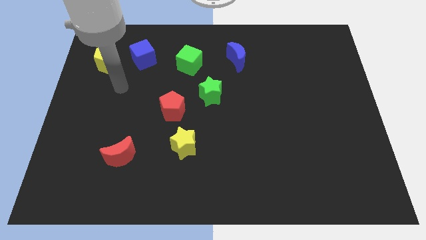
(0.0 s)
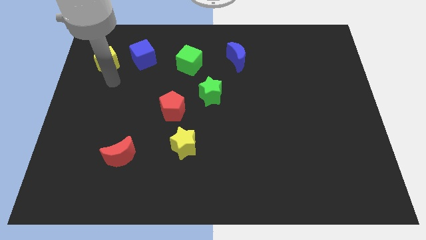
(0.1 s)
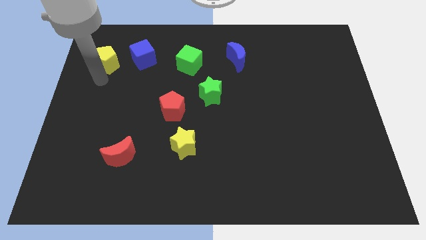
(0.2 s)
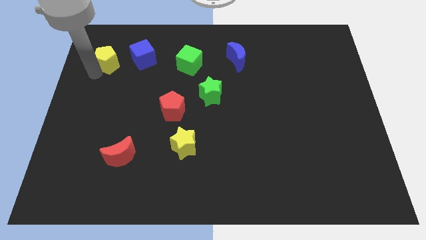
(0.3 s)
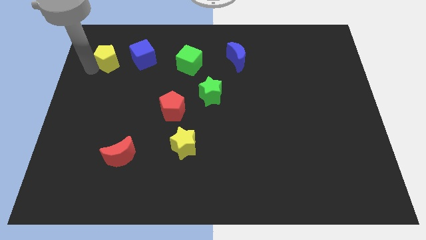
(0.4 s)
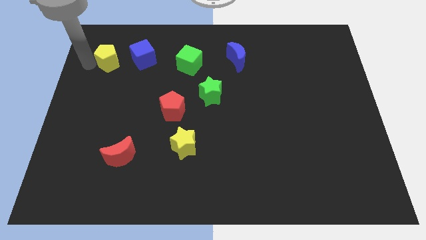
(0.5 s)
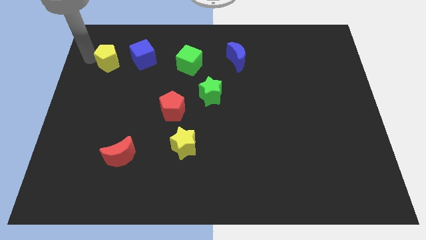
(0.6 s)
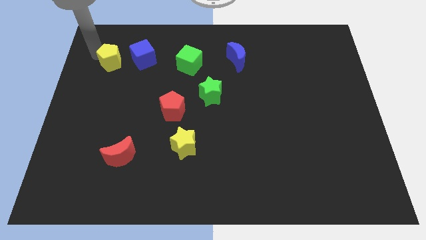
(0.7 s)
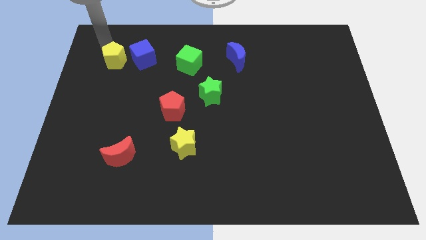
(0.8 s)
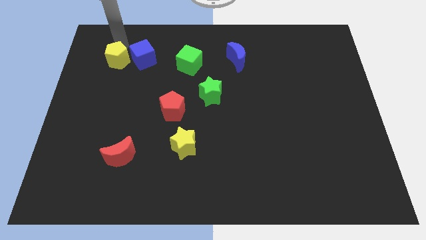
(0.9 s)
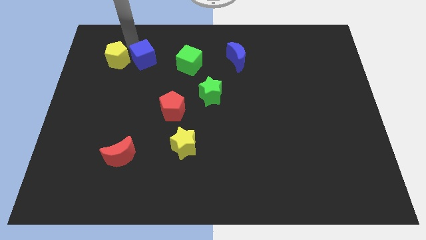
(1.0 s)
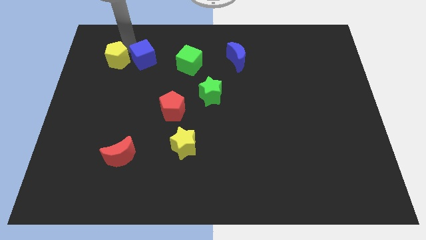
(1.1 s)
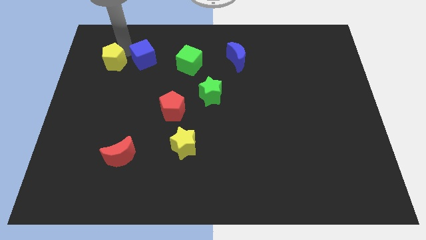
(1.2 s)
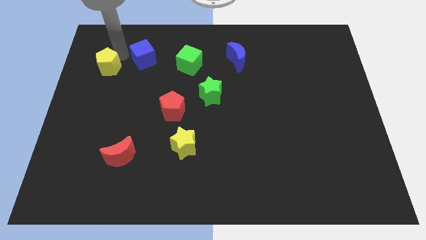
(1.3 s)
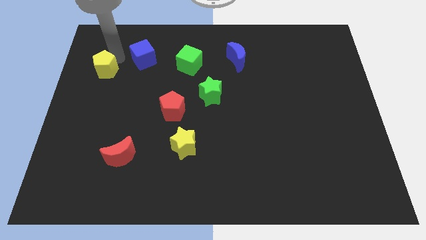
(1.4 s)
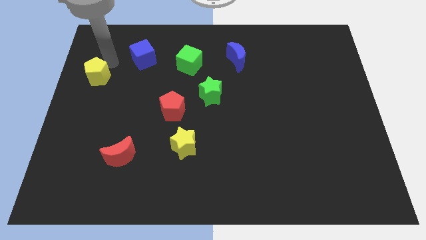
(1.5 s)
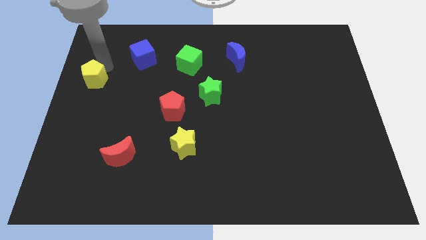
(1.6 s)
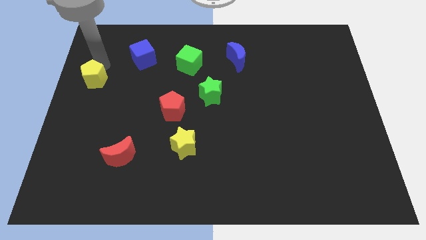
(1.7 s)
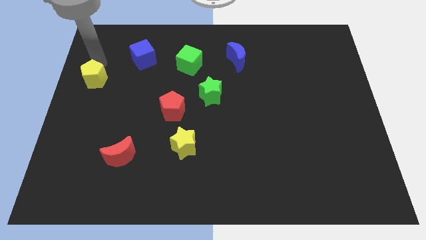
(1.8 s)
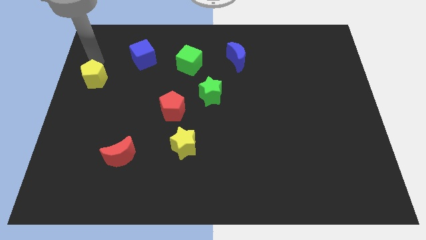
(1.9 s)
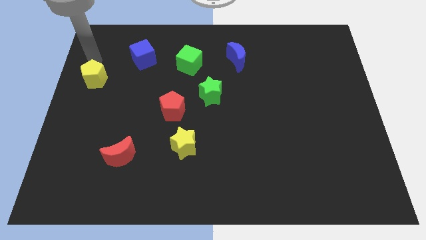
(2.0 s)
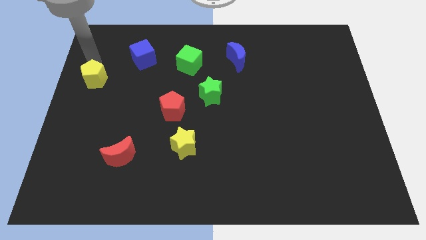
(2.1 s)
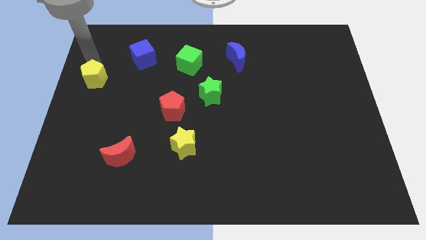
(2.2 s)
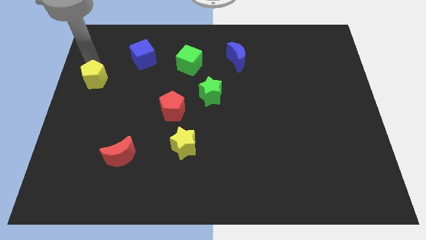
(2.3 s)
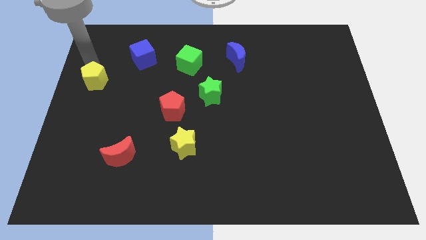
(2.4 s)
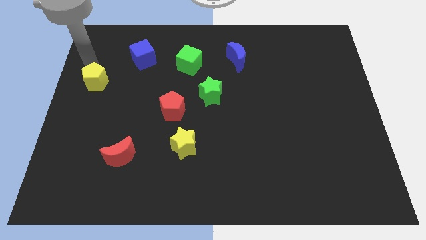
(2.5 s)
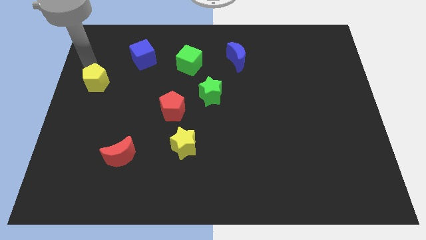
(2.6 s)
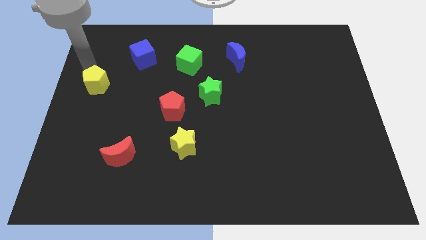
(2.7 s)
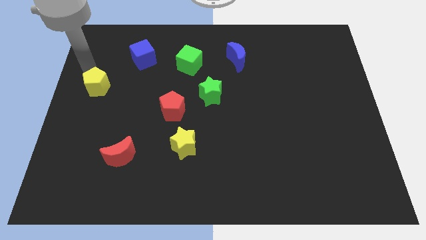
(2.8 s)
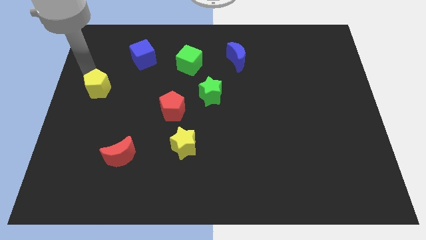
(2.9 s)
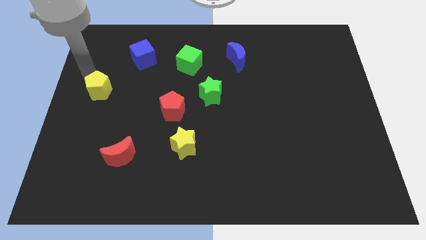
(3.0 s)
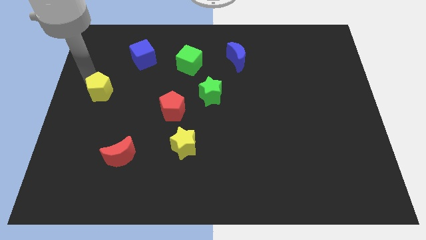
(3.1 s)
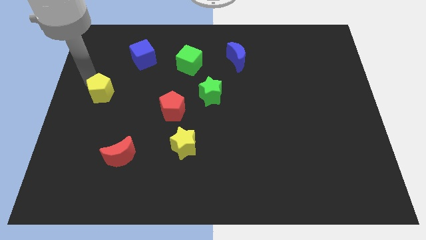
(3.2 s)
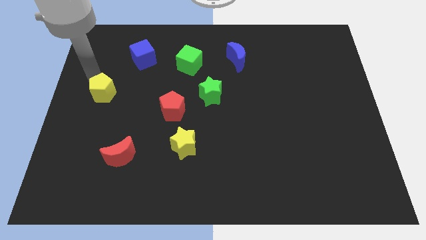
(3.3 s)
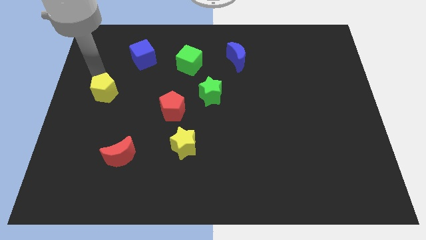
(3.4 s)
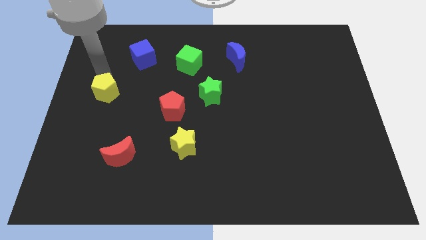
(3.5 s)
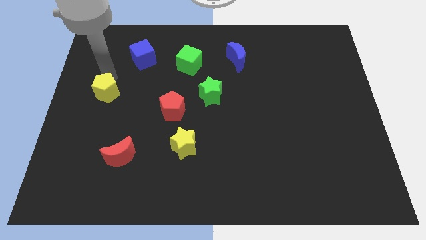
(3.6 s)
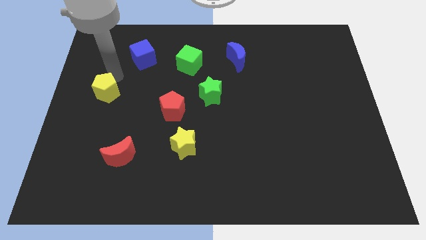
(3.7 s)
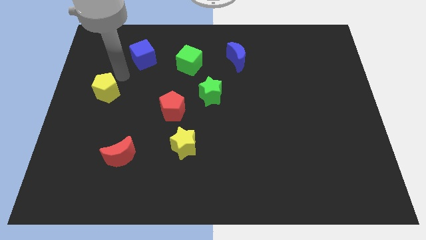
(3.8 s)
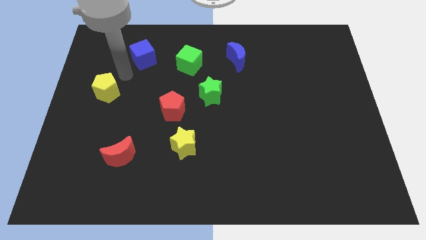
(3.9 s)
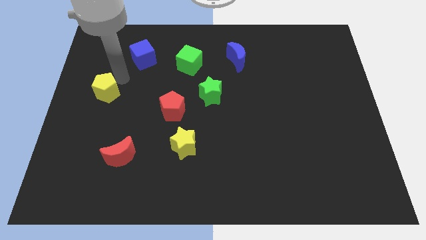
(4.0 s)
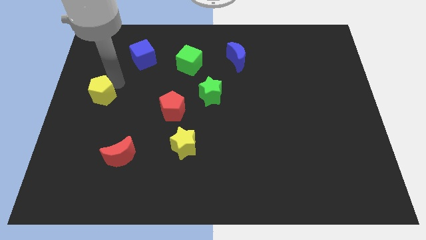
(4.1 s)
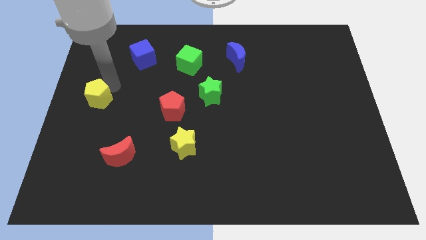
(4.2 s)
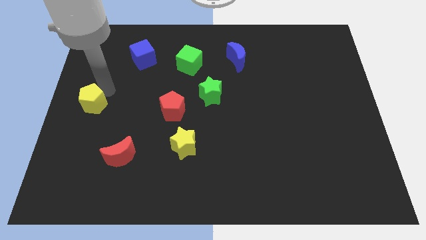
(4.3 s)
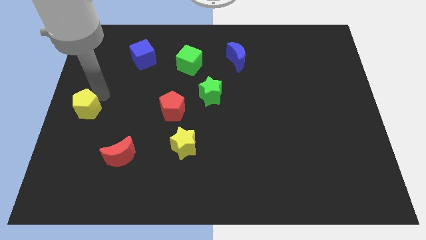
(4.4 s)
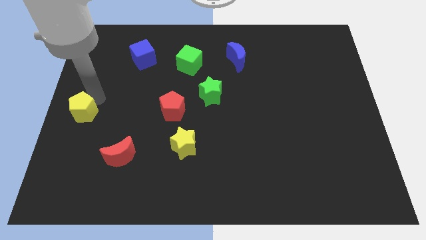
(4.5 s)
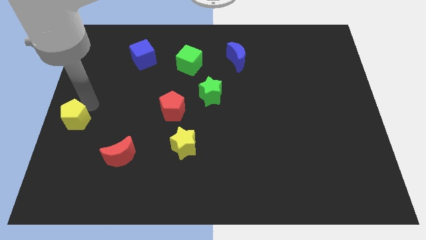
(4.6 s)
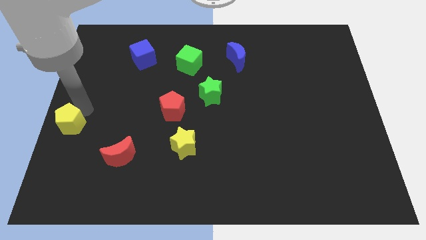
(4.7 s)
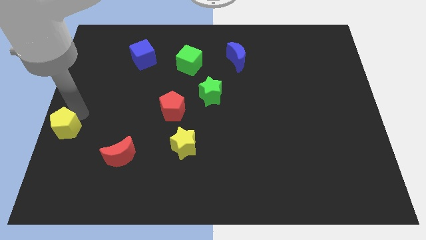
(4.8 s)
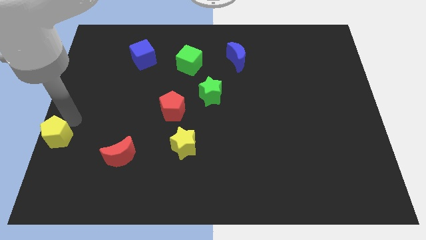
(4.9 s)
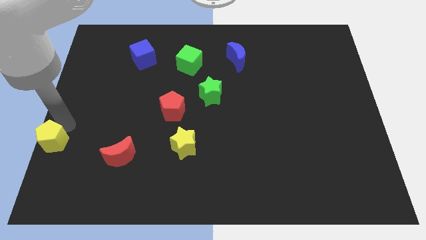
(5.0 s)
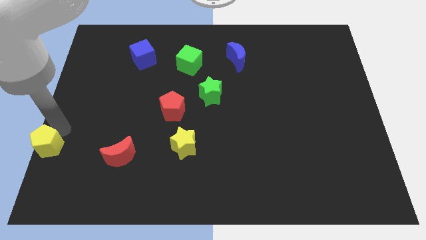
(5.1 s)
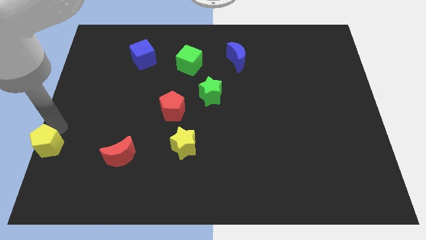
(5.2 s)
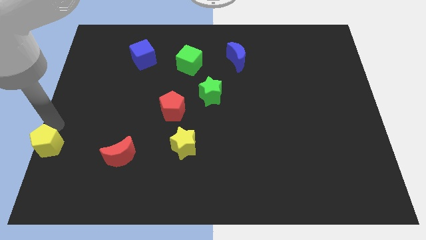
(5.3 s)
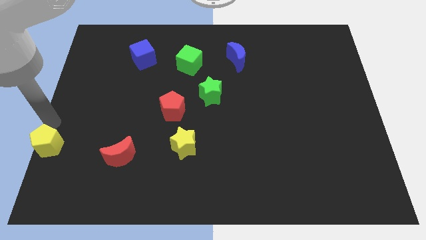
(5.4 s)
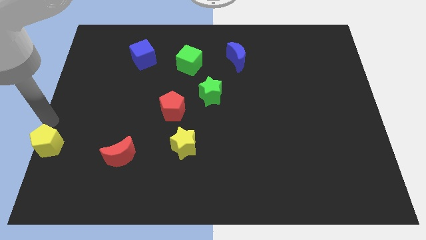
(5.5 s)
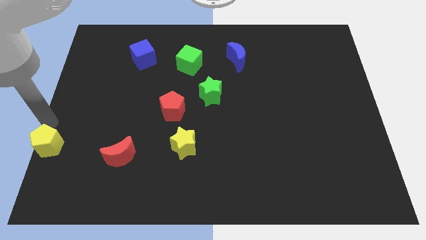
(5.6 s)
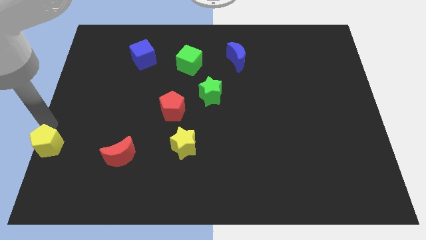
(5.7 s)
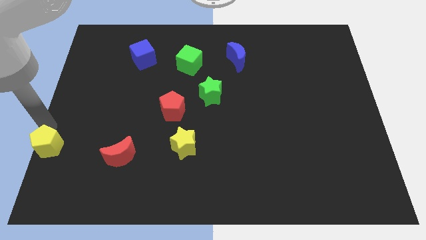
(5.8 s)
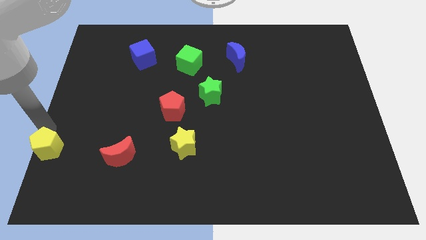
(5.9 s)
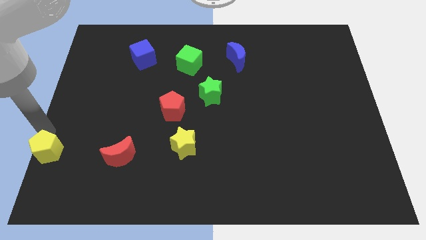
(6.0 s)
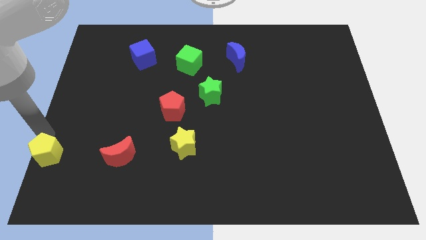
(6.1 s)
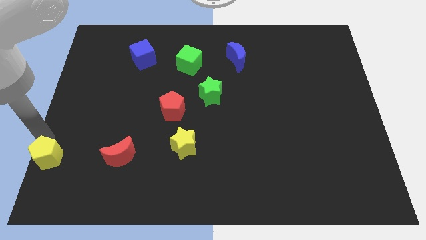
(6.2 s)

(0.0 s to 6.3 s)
slide the yellow pentagon to the bottom left corner
